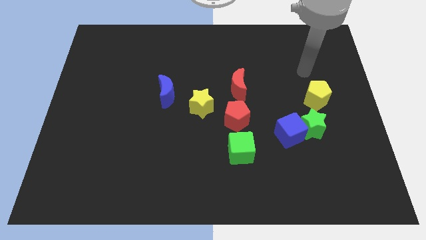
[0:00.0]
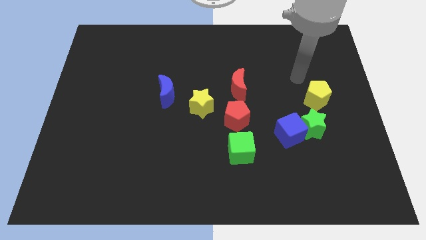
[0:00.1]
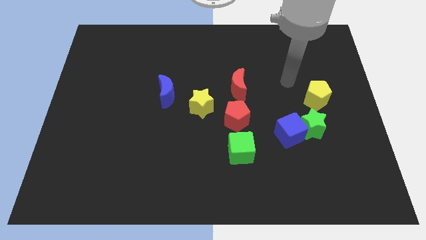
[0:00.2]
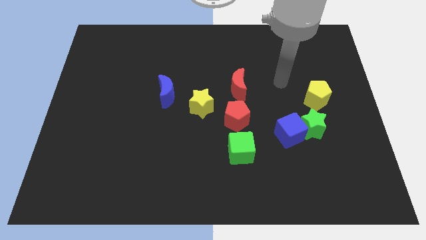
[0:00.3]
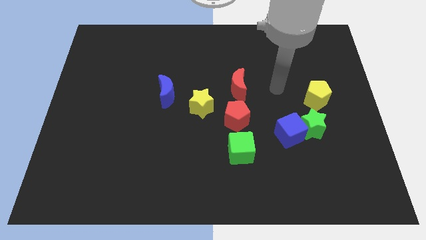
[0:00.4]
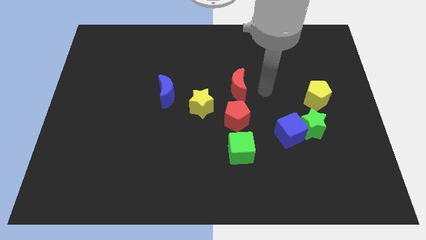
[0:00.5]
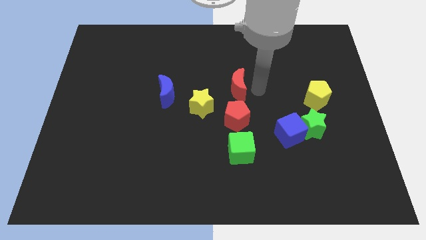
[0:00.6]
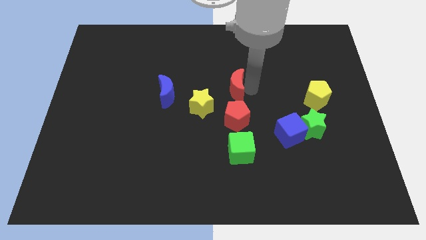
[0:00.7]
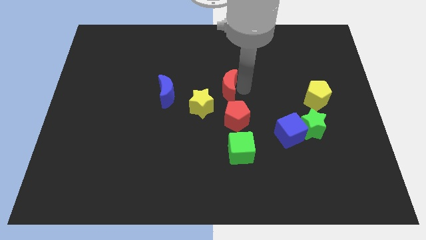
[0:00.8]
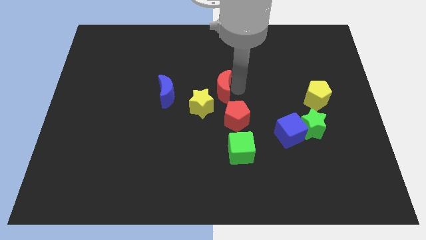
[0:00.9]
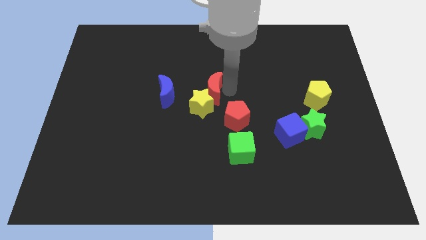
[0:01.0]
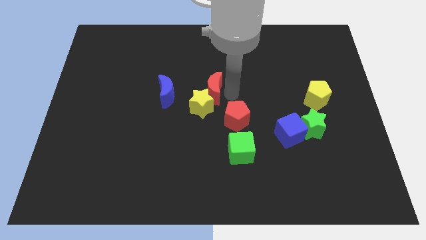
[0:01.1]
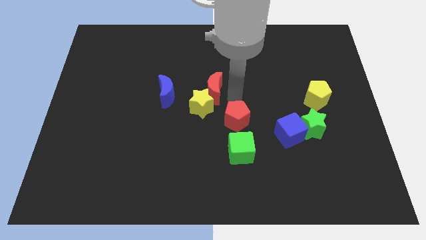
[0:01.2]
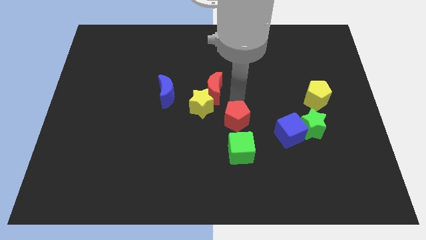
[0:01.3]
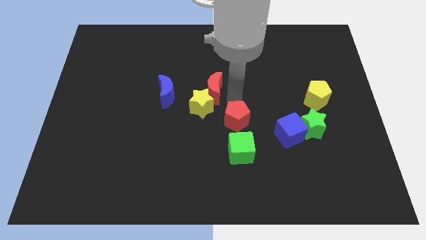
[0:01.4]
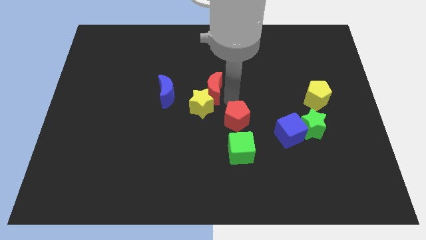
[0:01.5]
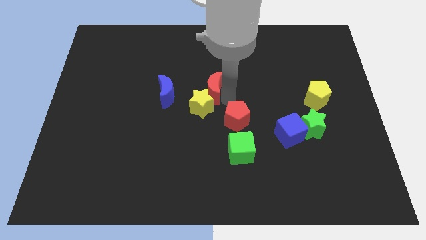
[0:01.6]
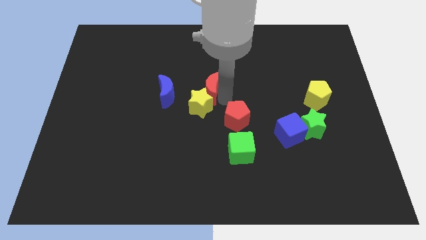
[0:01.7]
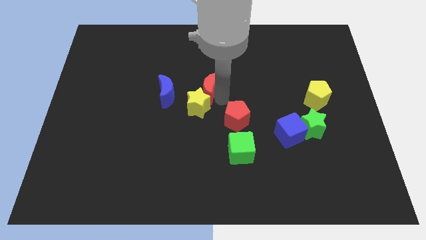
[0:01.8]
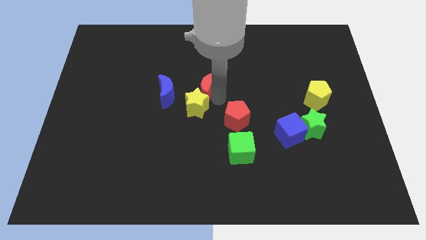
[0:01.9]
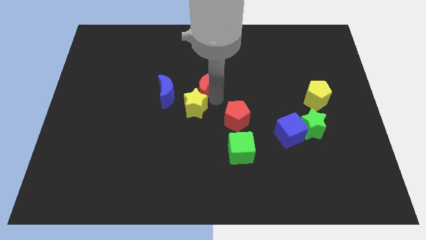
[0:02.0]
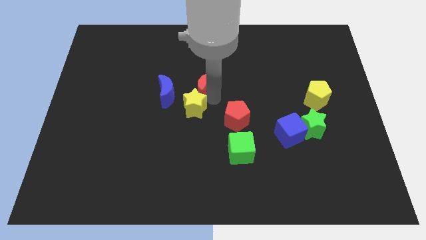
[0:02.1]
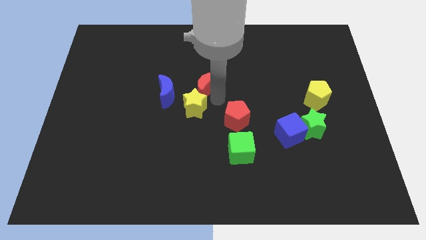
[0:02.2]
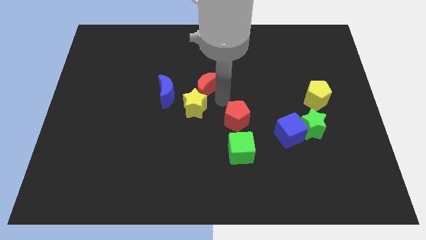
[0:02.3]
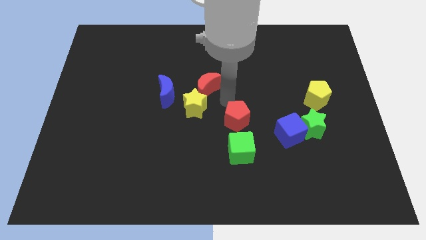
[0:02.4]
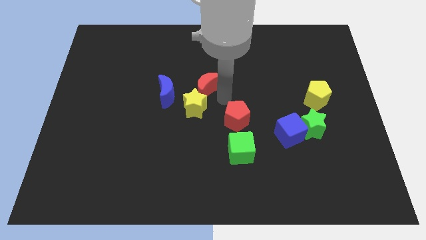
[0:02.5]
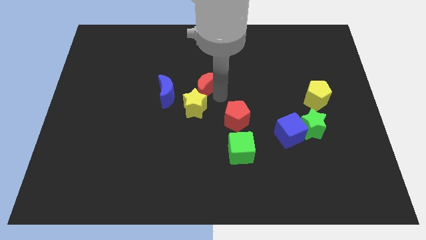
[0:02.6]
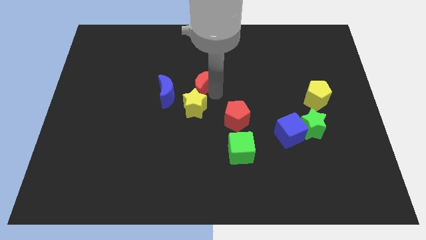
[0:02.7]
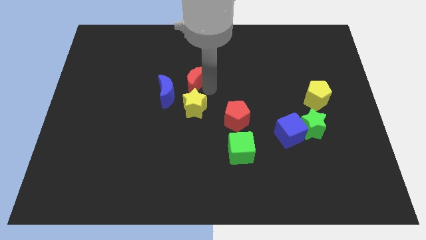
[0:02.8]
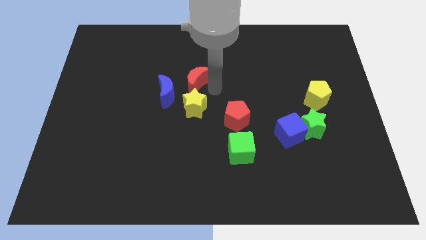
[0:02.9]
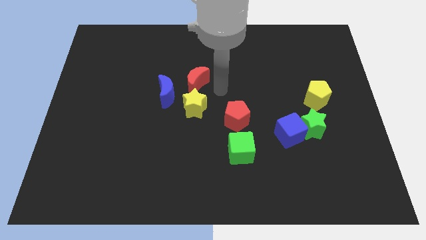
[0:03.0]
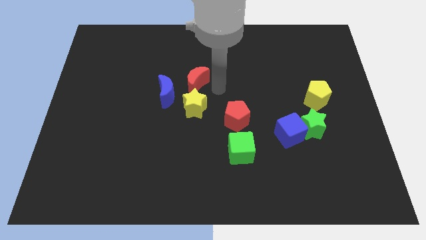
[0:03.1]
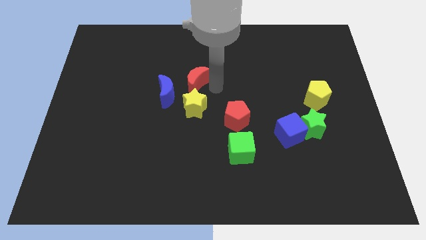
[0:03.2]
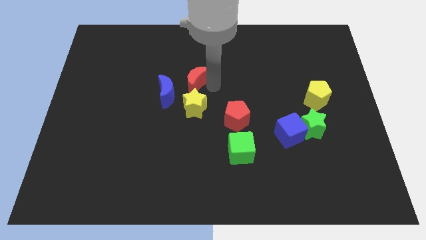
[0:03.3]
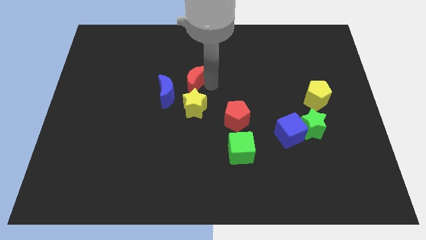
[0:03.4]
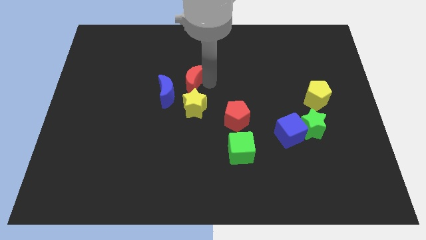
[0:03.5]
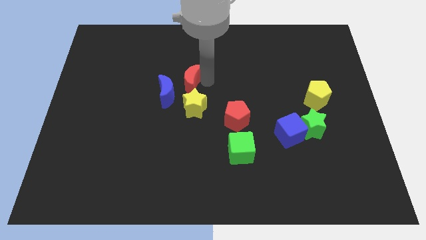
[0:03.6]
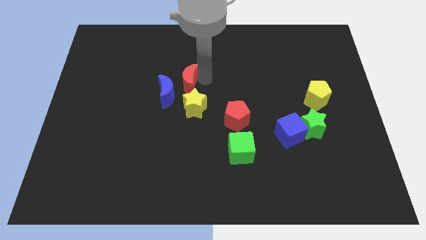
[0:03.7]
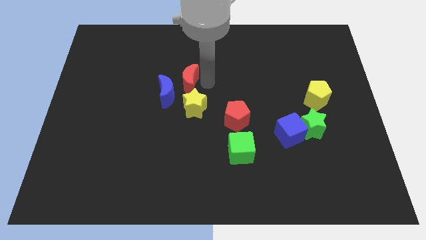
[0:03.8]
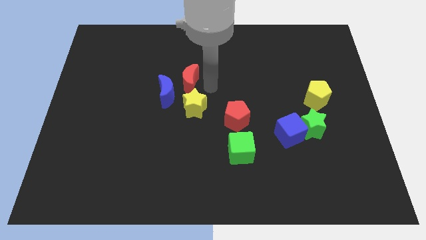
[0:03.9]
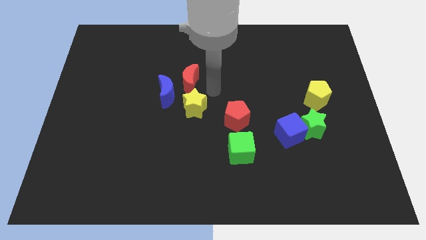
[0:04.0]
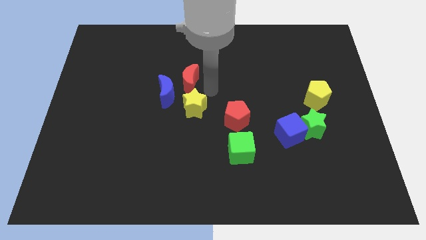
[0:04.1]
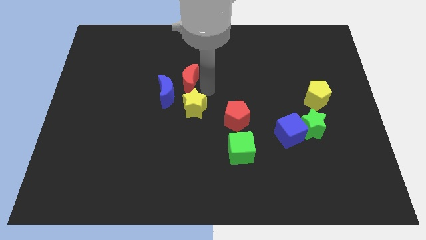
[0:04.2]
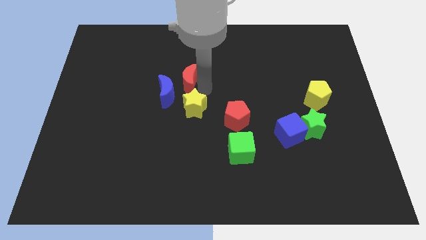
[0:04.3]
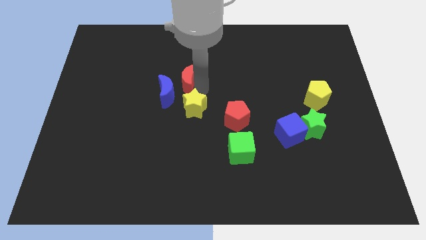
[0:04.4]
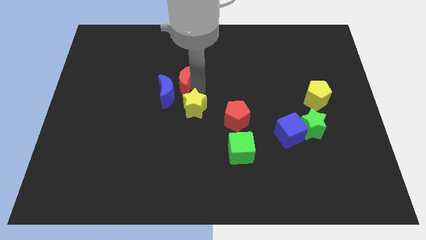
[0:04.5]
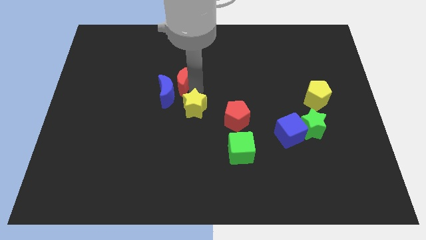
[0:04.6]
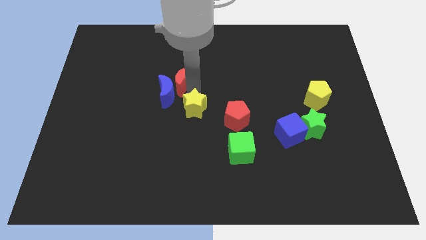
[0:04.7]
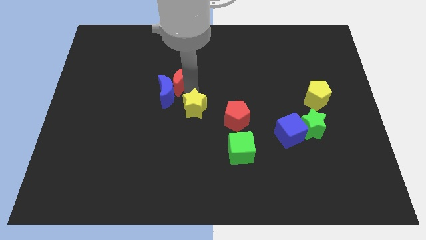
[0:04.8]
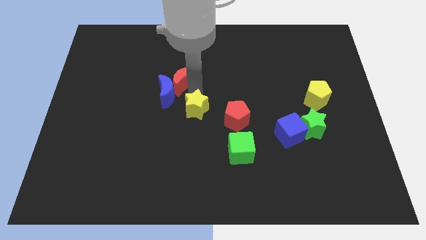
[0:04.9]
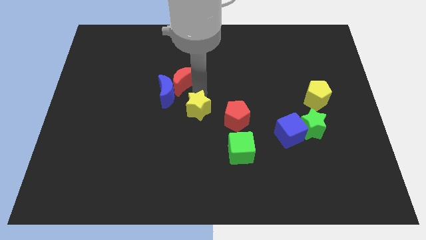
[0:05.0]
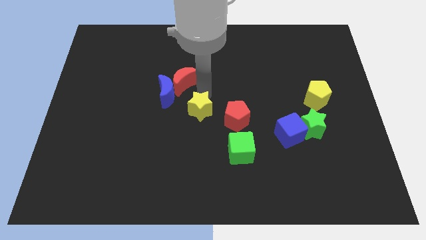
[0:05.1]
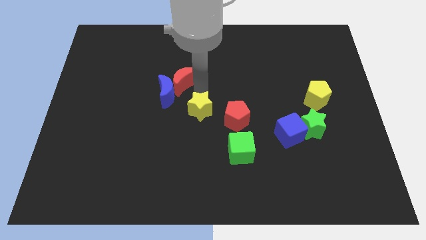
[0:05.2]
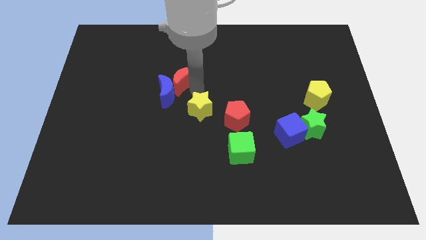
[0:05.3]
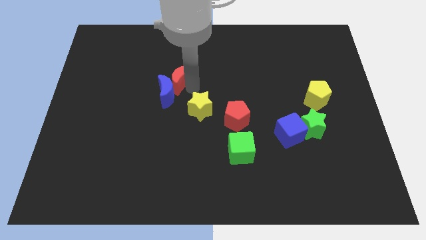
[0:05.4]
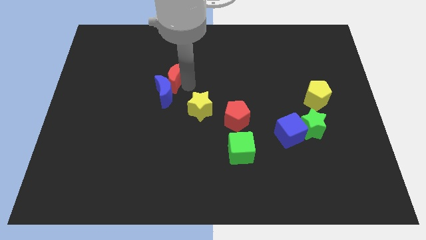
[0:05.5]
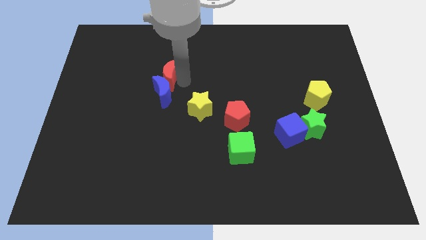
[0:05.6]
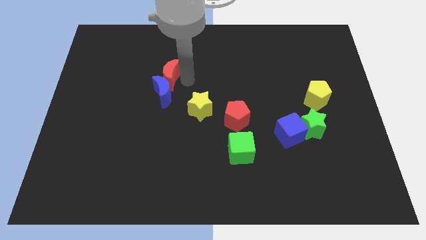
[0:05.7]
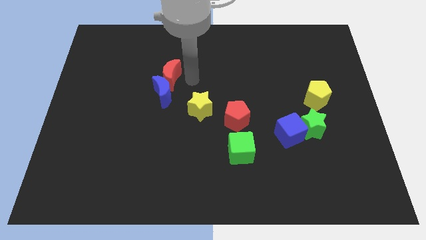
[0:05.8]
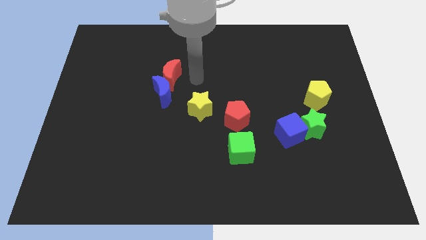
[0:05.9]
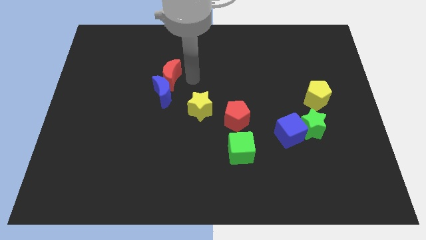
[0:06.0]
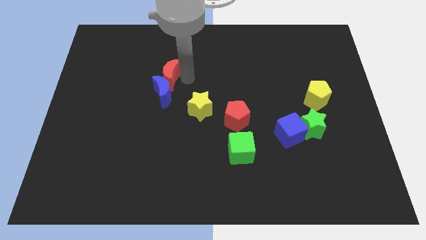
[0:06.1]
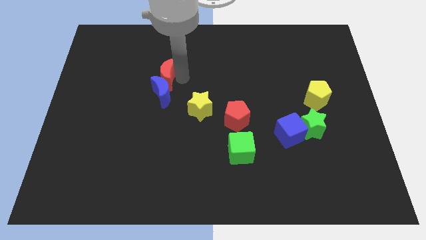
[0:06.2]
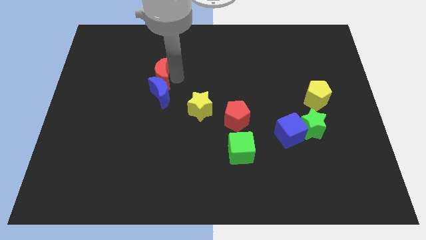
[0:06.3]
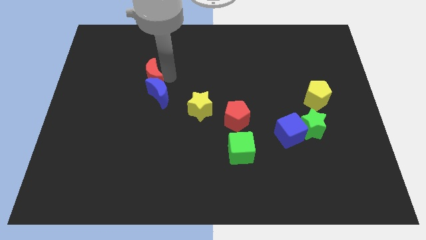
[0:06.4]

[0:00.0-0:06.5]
slide the red moon to the left

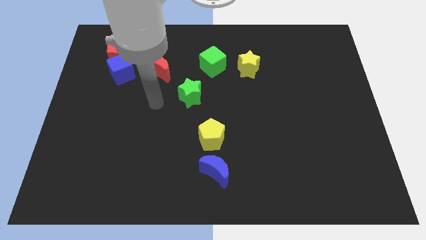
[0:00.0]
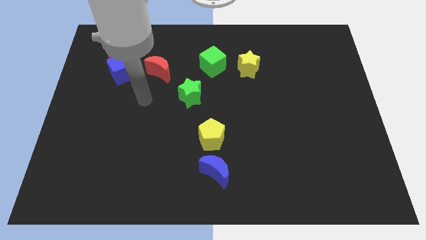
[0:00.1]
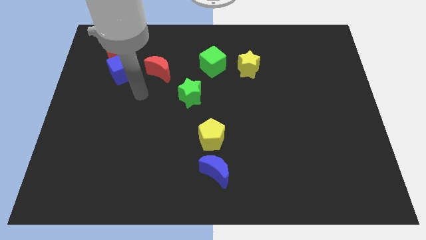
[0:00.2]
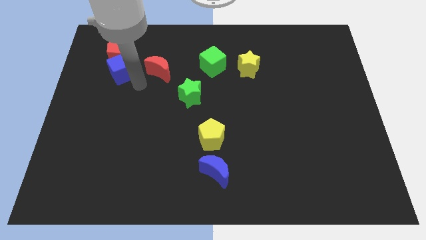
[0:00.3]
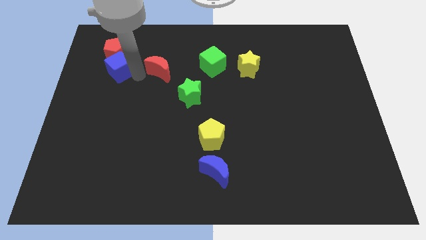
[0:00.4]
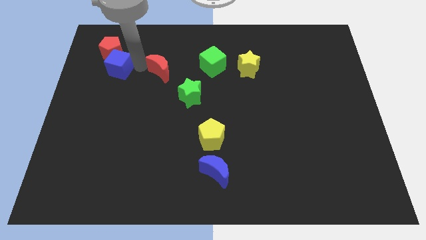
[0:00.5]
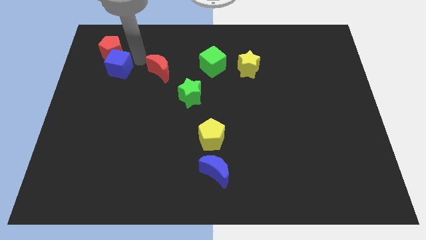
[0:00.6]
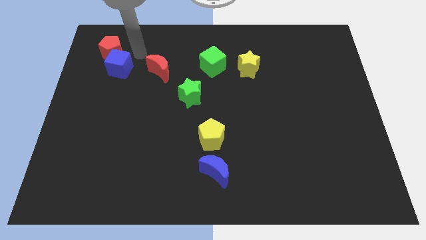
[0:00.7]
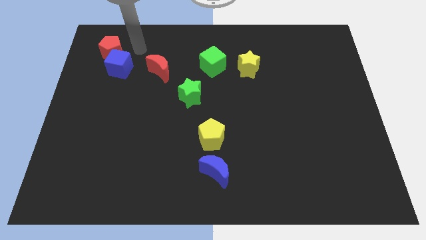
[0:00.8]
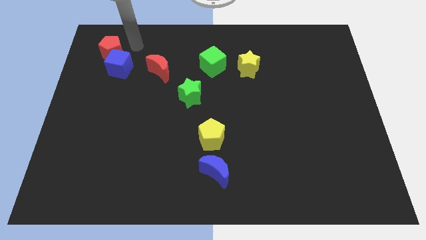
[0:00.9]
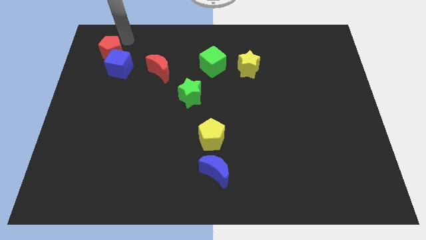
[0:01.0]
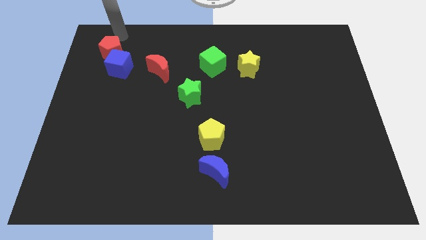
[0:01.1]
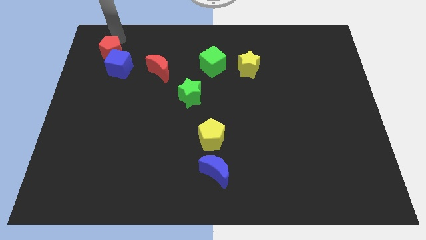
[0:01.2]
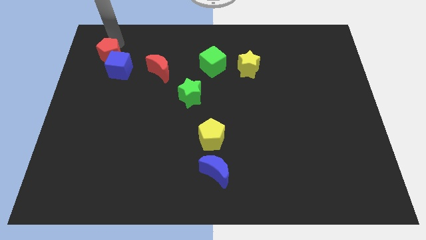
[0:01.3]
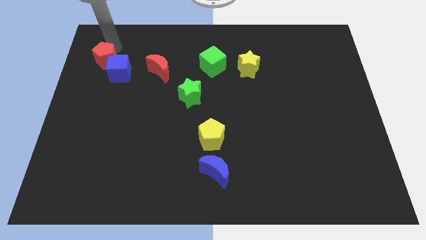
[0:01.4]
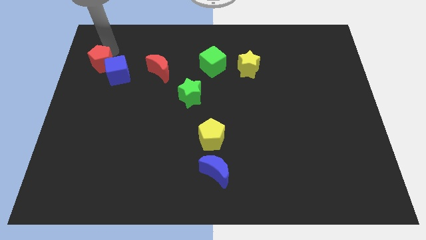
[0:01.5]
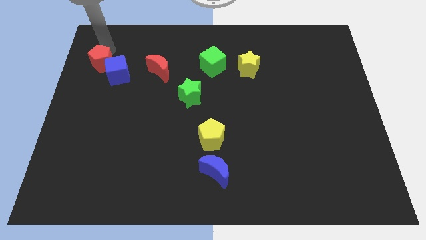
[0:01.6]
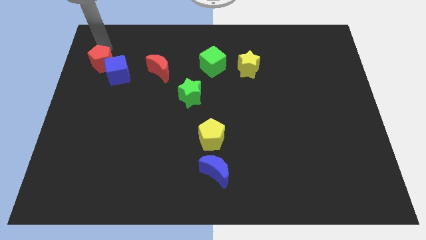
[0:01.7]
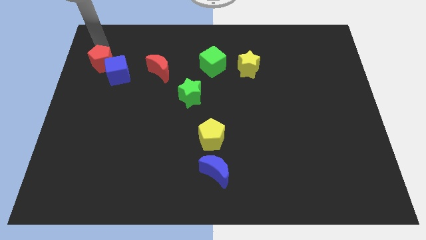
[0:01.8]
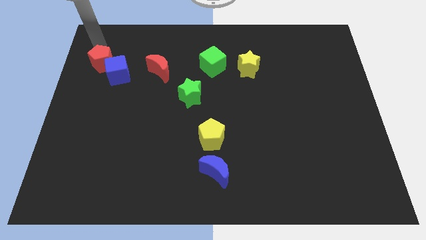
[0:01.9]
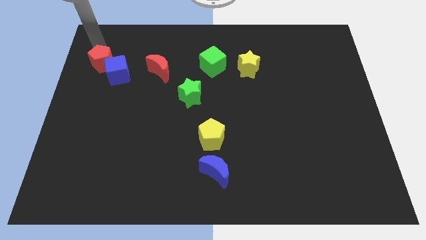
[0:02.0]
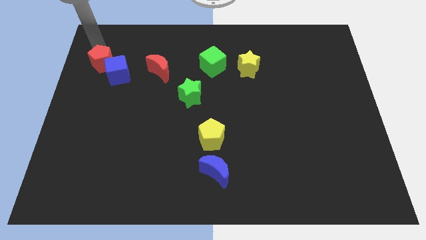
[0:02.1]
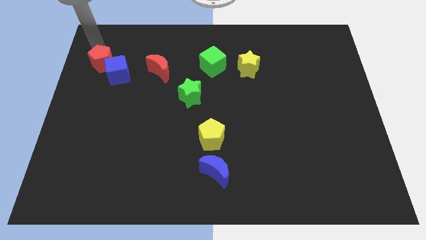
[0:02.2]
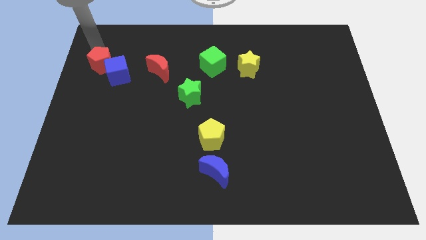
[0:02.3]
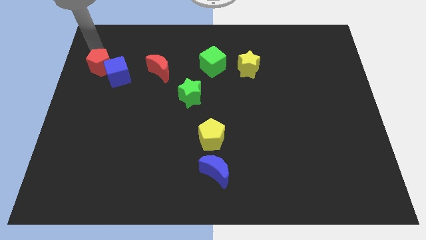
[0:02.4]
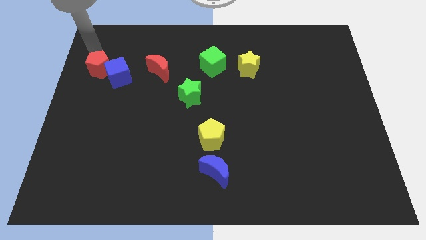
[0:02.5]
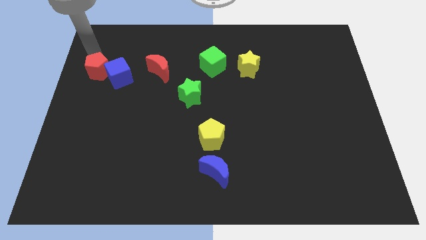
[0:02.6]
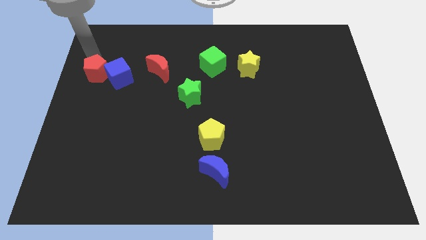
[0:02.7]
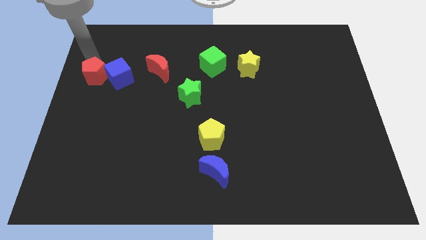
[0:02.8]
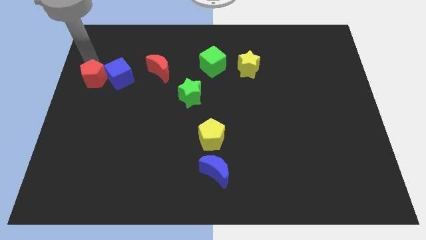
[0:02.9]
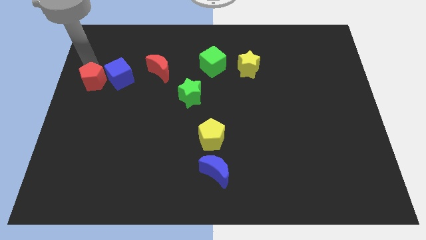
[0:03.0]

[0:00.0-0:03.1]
move the red pentagon downwards a little
